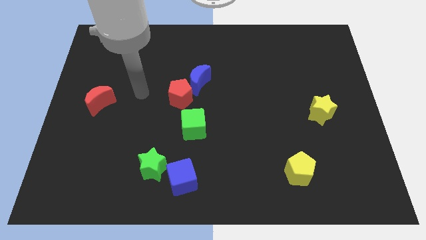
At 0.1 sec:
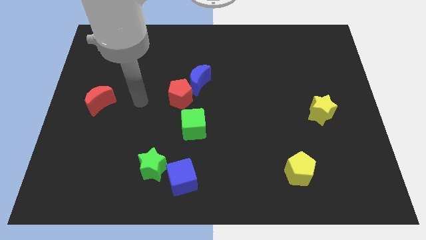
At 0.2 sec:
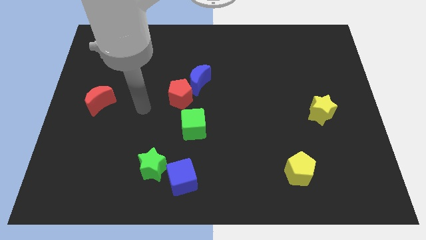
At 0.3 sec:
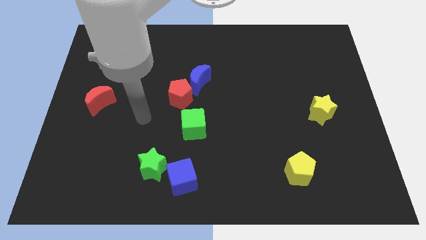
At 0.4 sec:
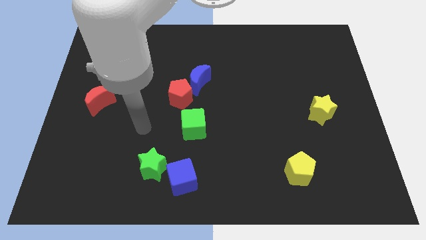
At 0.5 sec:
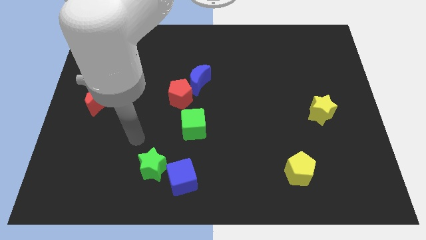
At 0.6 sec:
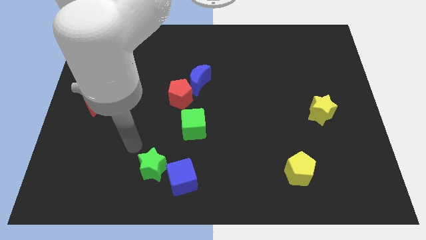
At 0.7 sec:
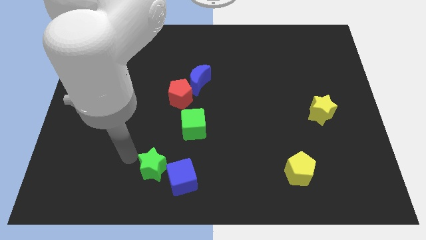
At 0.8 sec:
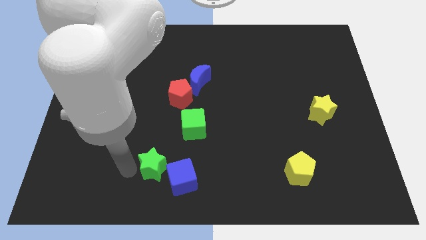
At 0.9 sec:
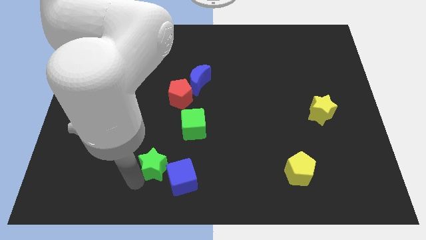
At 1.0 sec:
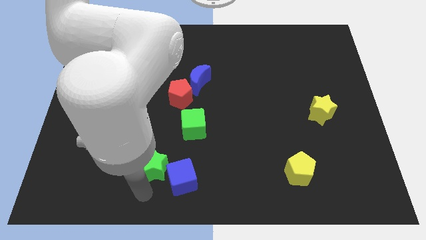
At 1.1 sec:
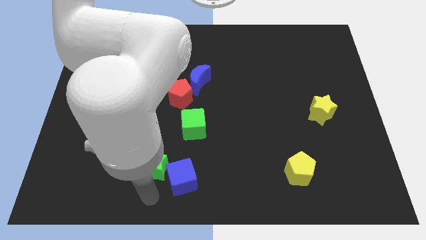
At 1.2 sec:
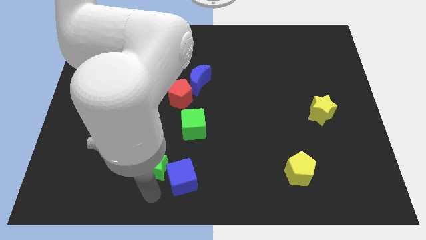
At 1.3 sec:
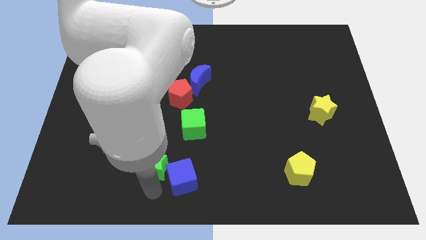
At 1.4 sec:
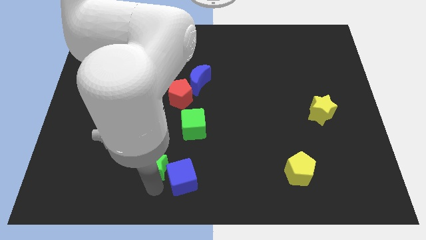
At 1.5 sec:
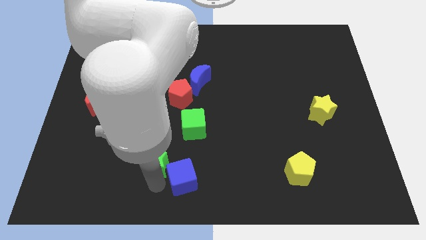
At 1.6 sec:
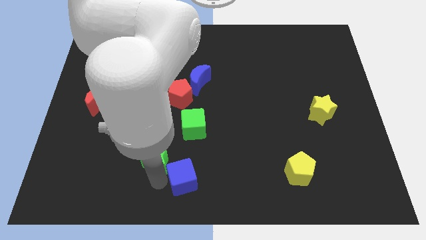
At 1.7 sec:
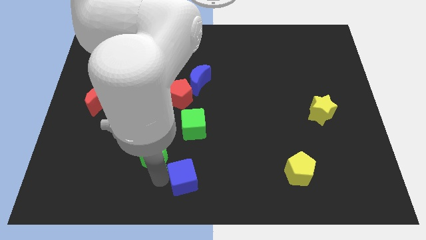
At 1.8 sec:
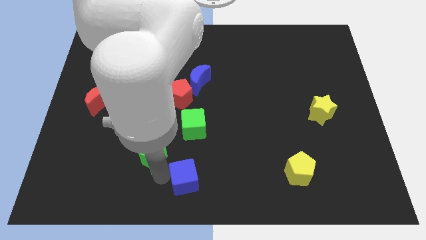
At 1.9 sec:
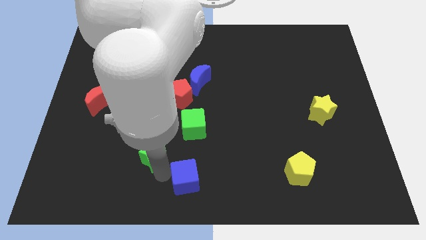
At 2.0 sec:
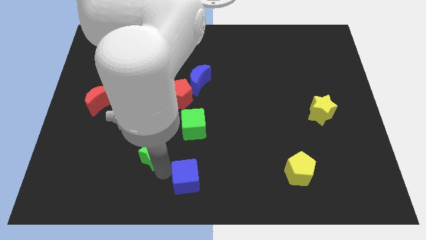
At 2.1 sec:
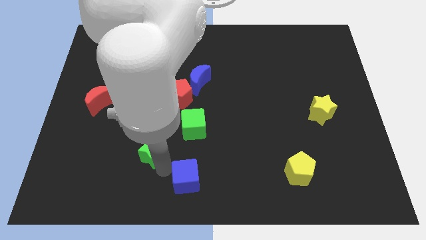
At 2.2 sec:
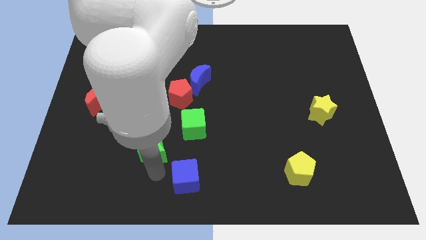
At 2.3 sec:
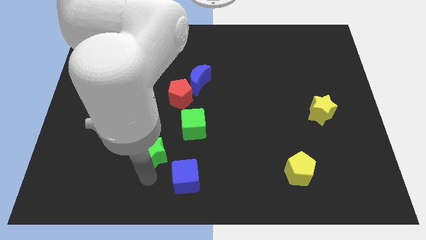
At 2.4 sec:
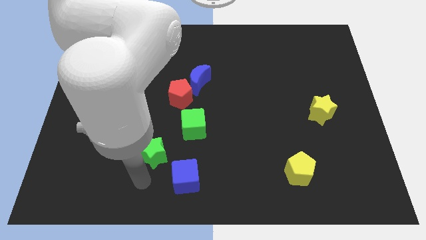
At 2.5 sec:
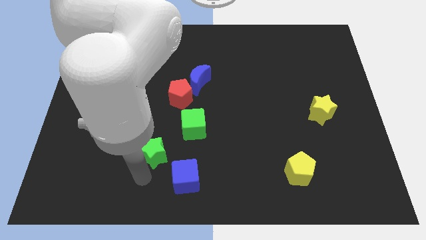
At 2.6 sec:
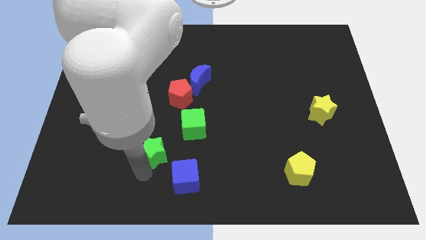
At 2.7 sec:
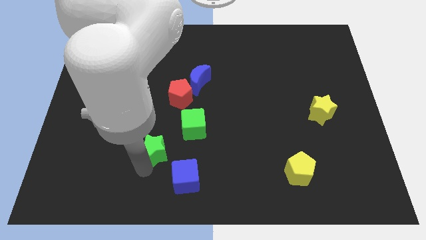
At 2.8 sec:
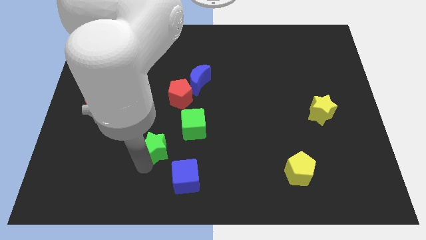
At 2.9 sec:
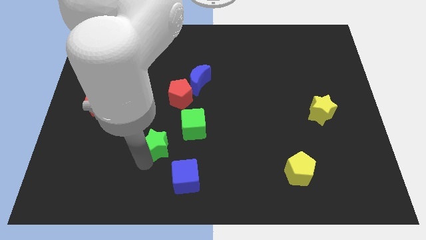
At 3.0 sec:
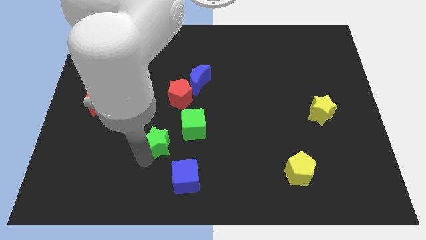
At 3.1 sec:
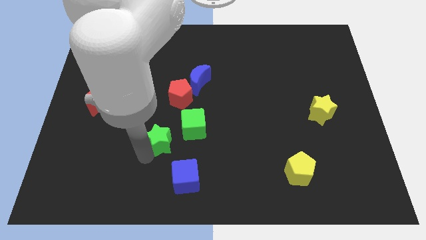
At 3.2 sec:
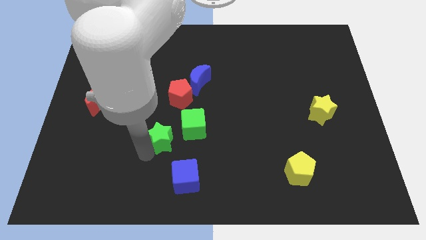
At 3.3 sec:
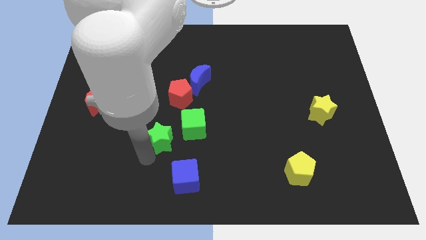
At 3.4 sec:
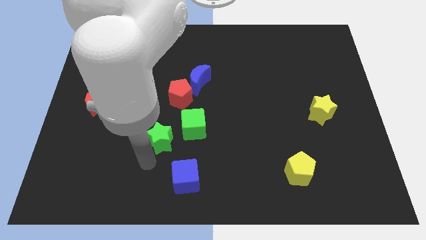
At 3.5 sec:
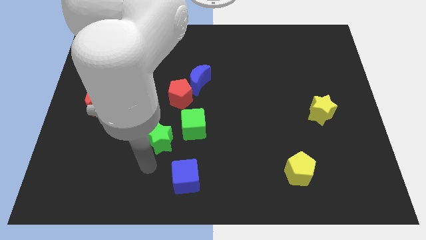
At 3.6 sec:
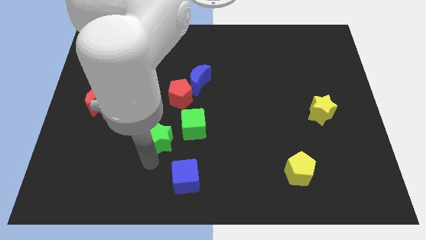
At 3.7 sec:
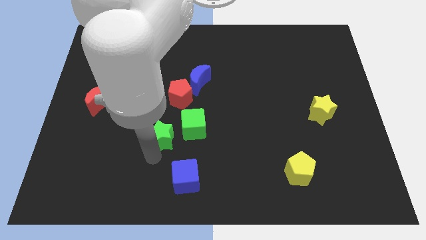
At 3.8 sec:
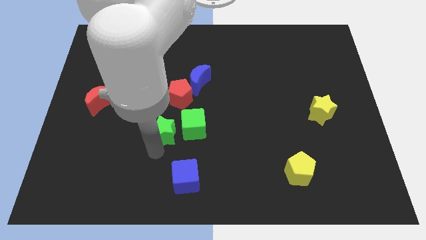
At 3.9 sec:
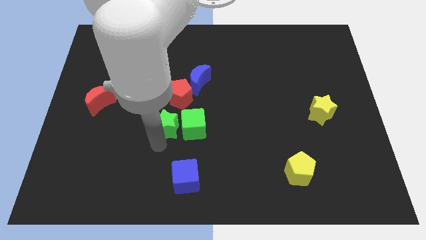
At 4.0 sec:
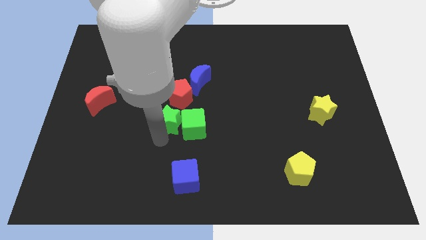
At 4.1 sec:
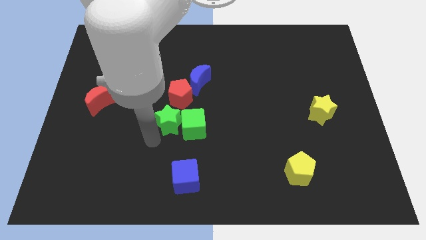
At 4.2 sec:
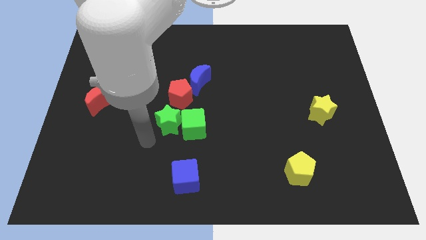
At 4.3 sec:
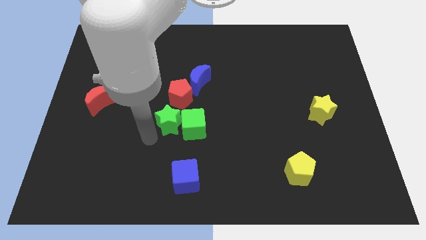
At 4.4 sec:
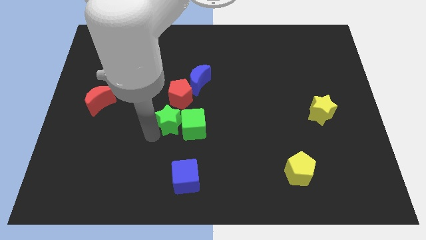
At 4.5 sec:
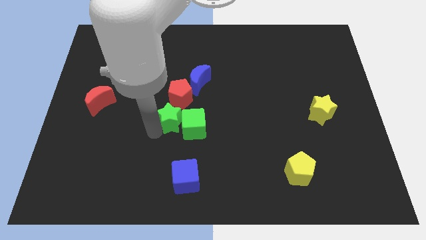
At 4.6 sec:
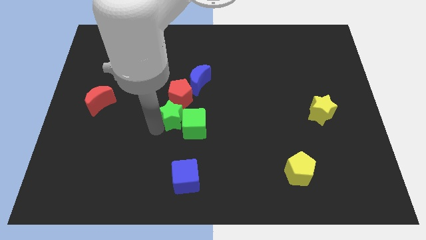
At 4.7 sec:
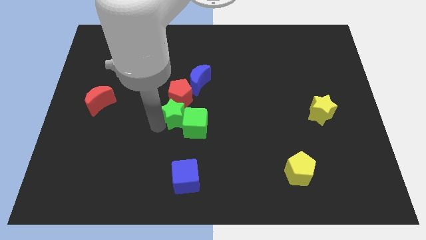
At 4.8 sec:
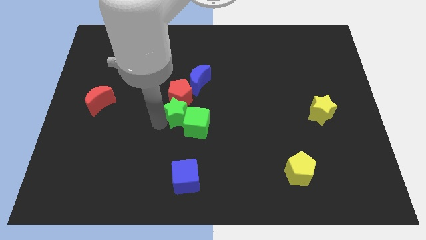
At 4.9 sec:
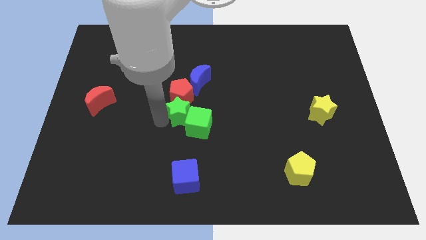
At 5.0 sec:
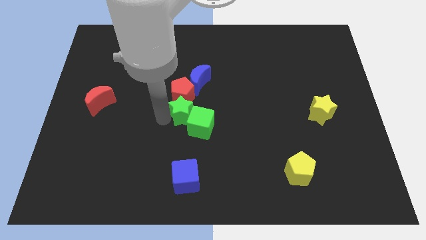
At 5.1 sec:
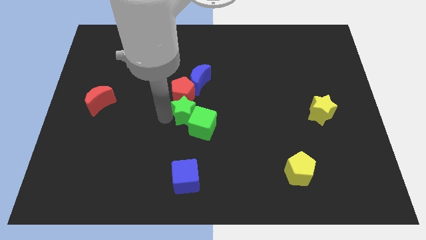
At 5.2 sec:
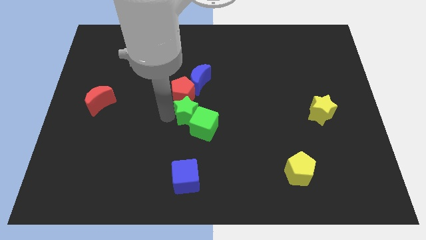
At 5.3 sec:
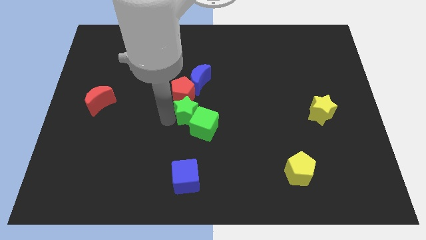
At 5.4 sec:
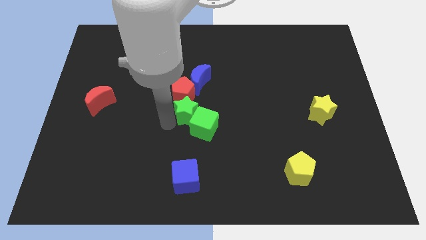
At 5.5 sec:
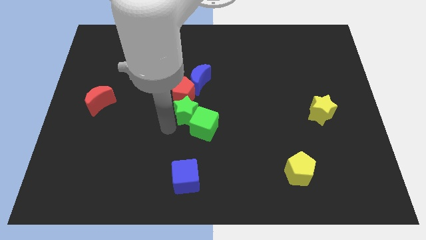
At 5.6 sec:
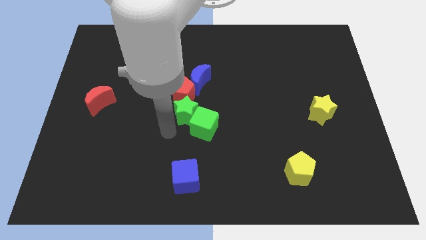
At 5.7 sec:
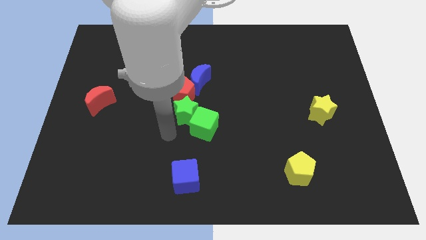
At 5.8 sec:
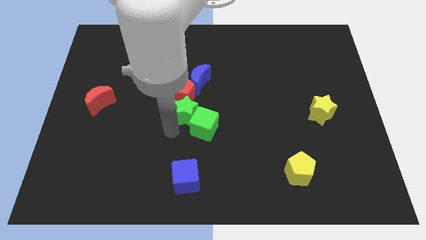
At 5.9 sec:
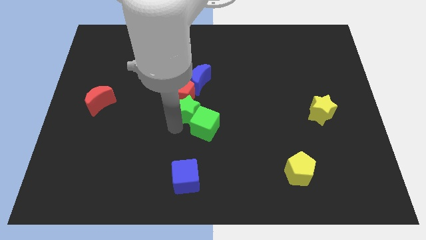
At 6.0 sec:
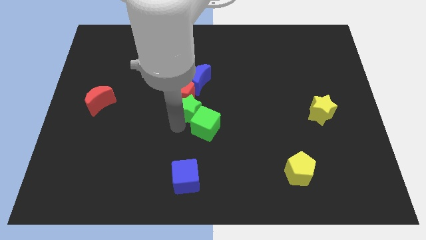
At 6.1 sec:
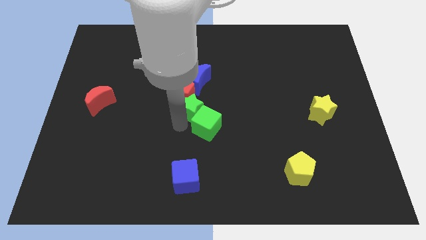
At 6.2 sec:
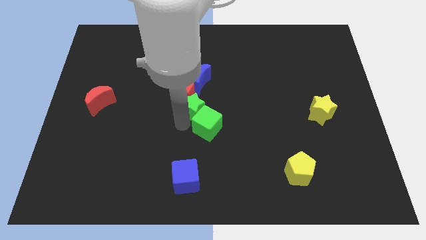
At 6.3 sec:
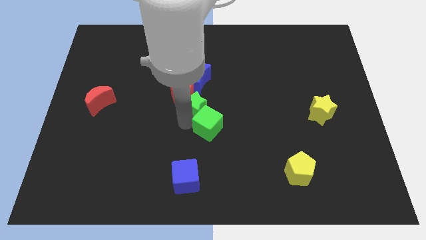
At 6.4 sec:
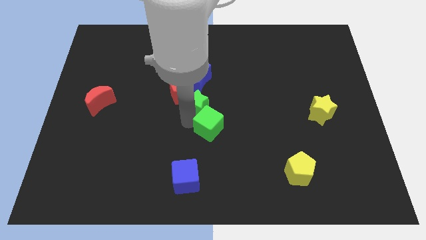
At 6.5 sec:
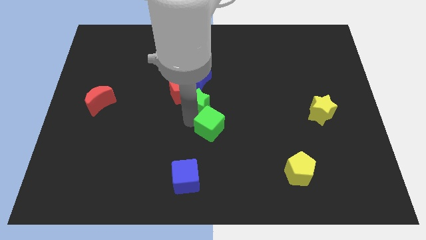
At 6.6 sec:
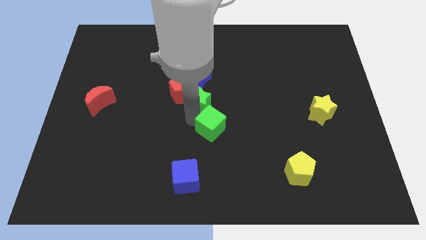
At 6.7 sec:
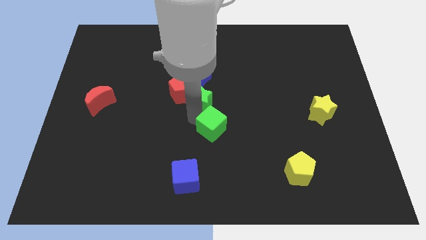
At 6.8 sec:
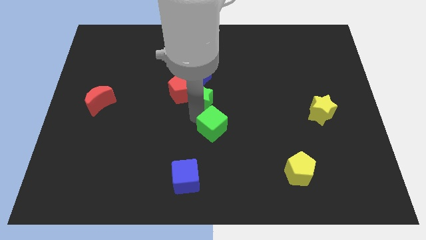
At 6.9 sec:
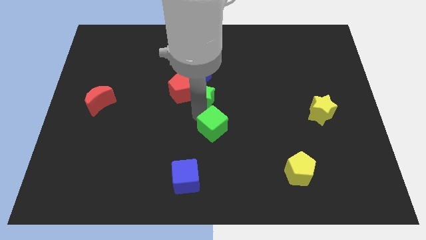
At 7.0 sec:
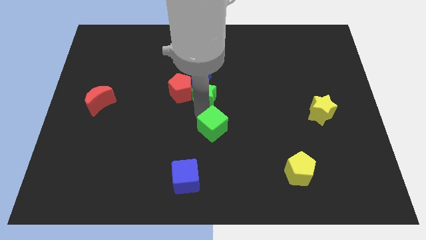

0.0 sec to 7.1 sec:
put the green star to the blue moon
